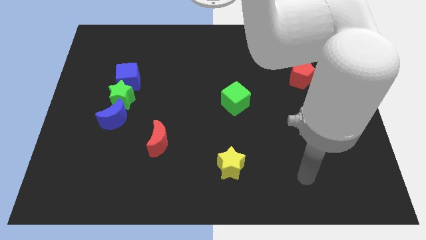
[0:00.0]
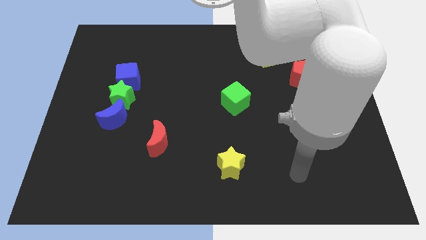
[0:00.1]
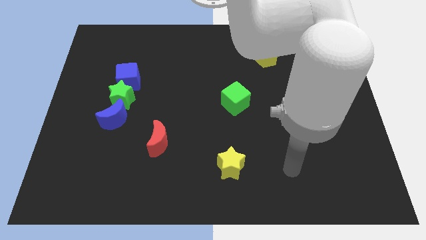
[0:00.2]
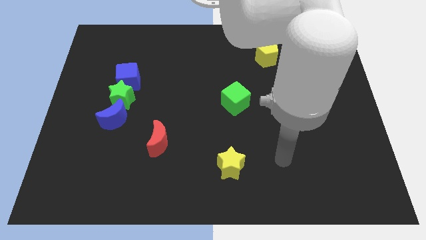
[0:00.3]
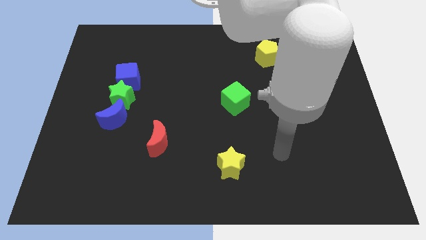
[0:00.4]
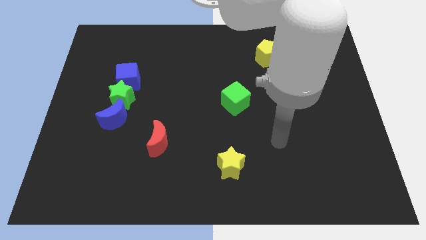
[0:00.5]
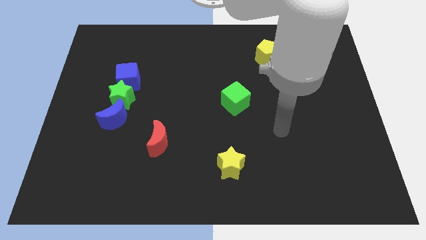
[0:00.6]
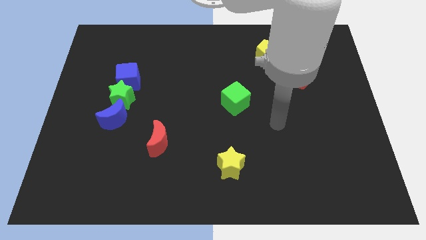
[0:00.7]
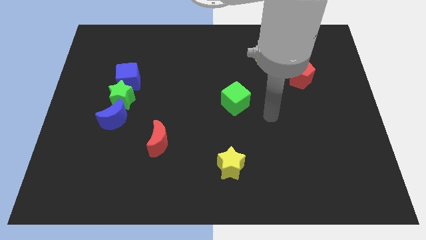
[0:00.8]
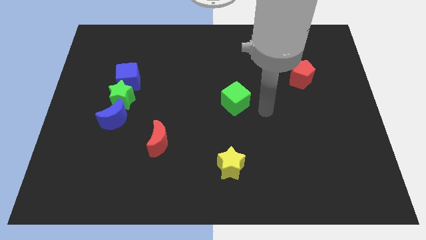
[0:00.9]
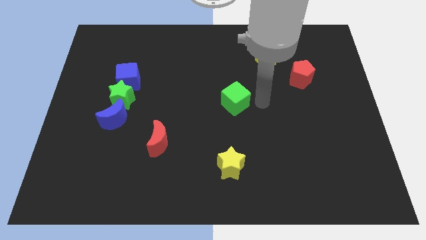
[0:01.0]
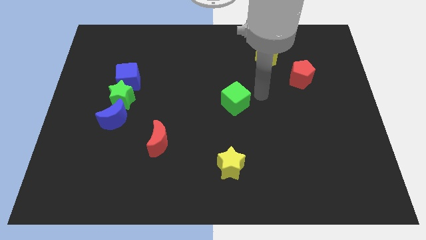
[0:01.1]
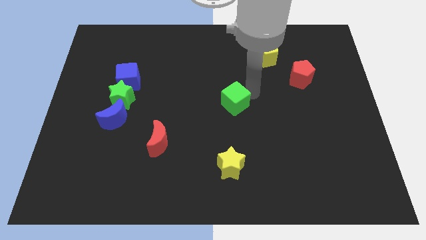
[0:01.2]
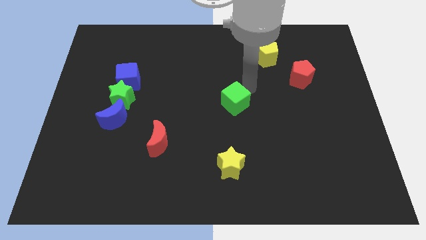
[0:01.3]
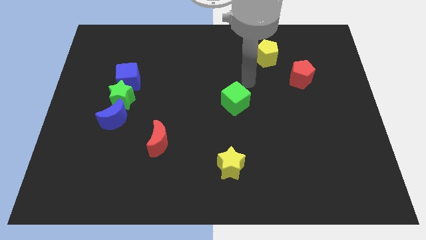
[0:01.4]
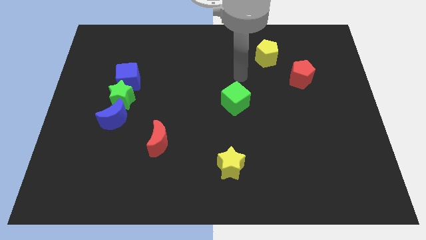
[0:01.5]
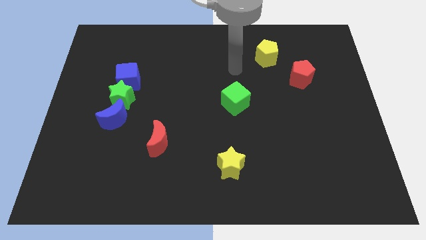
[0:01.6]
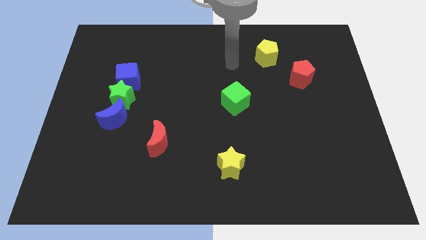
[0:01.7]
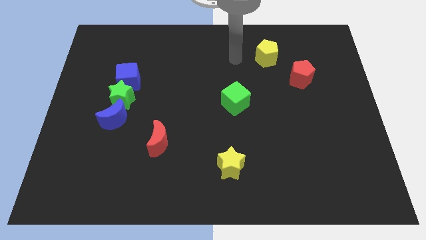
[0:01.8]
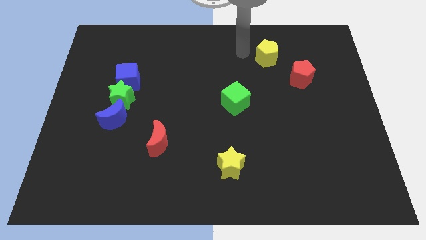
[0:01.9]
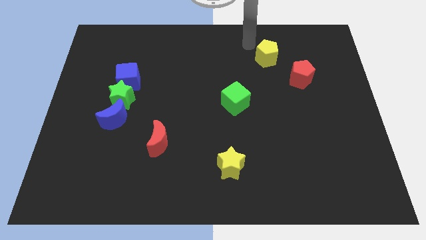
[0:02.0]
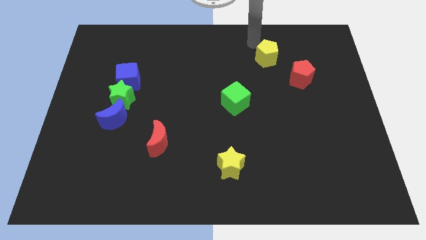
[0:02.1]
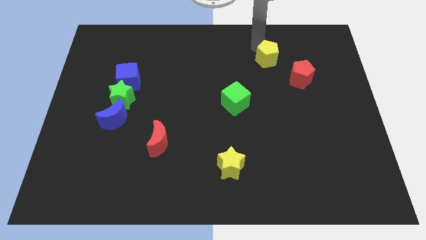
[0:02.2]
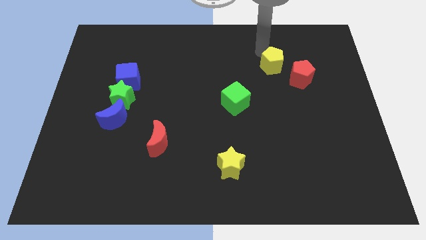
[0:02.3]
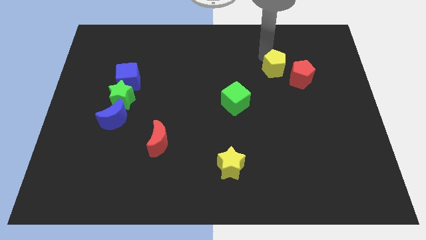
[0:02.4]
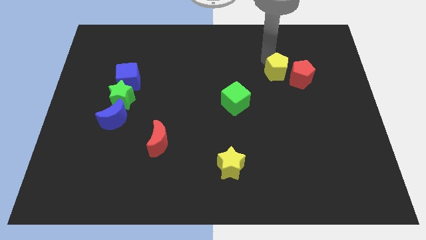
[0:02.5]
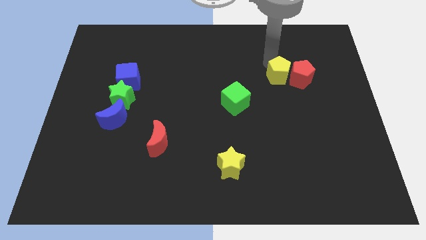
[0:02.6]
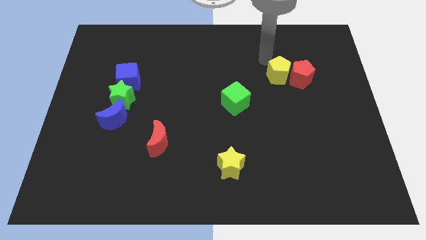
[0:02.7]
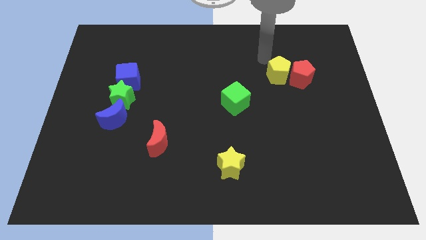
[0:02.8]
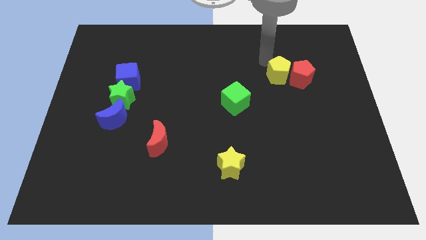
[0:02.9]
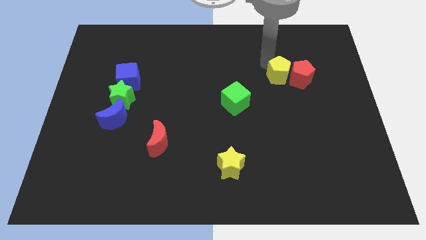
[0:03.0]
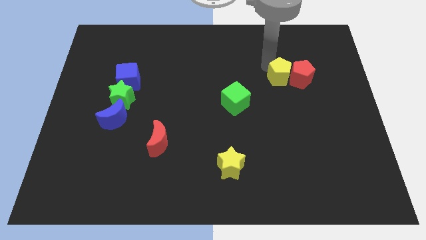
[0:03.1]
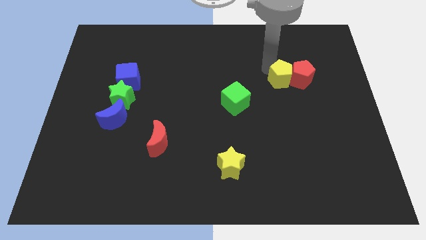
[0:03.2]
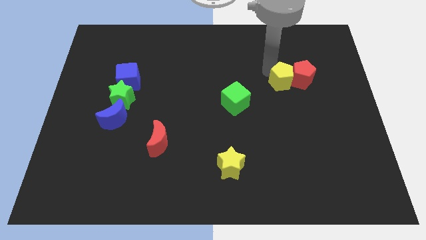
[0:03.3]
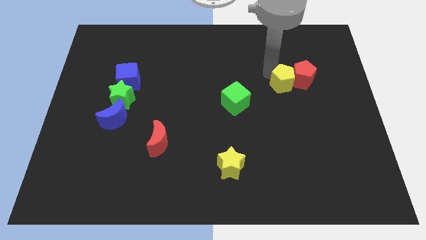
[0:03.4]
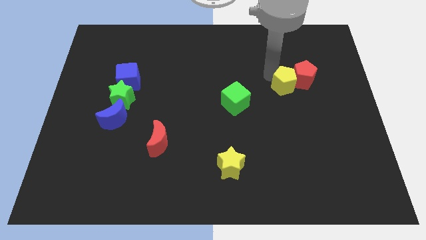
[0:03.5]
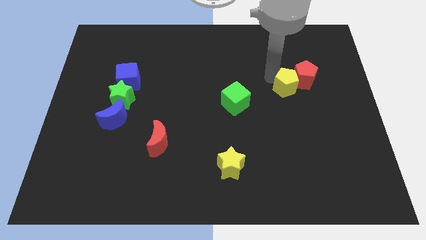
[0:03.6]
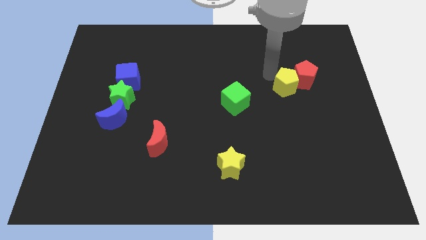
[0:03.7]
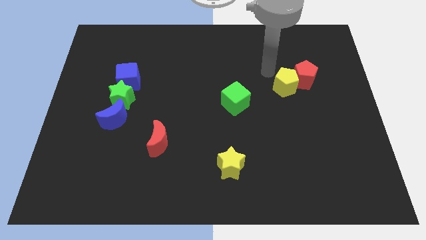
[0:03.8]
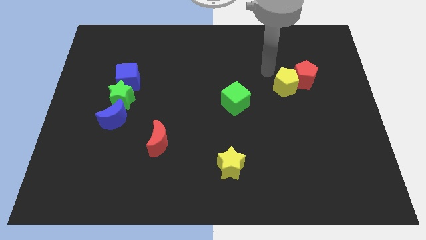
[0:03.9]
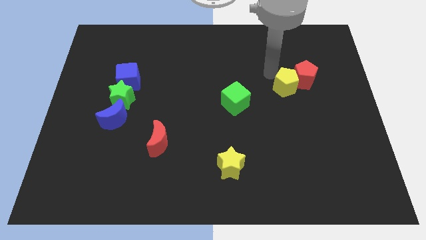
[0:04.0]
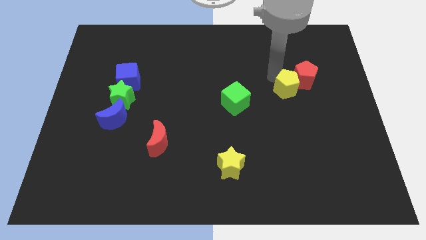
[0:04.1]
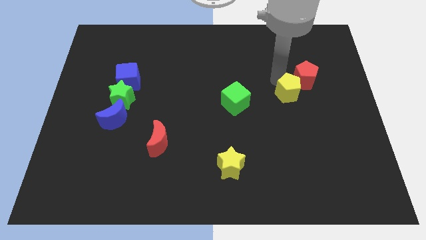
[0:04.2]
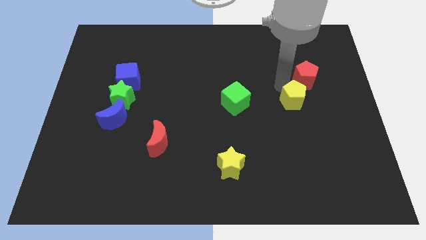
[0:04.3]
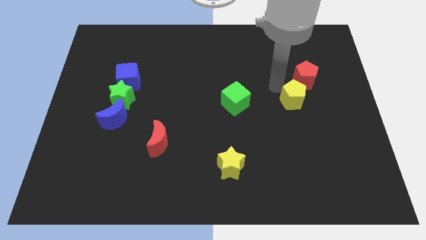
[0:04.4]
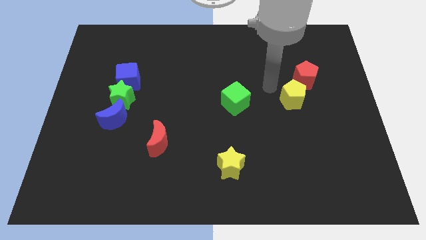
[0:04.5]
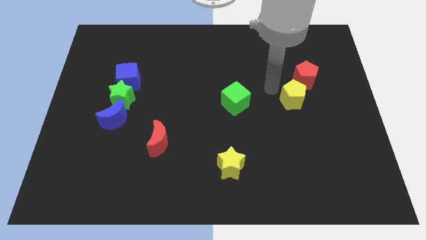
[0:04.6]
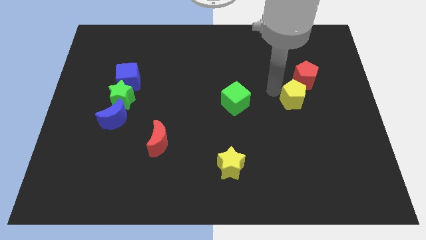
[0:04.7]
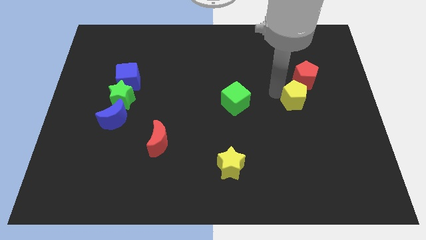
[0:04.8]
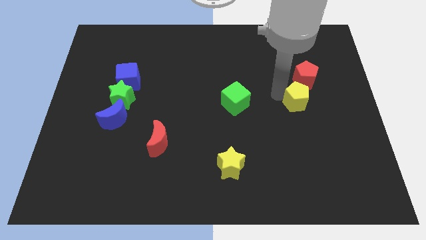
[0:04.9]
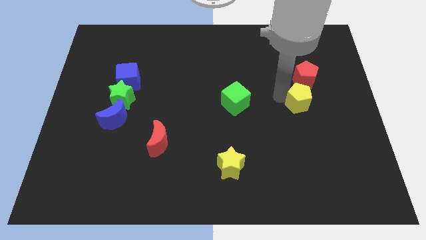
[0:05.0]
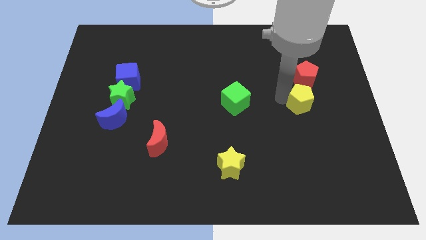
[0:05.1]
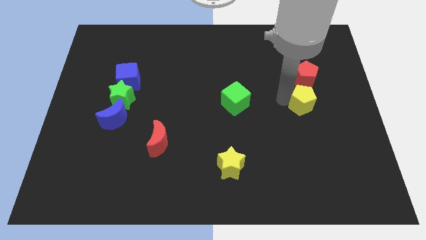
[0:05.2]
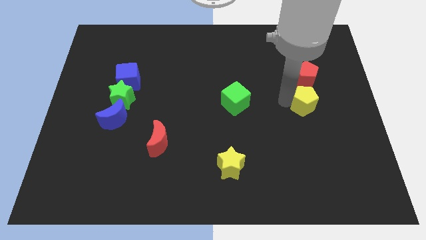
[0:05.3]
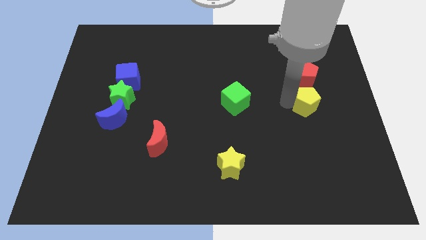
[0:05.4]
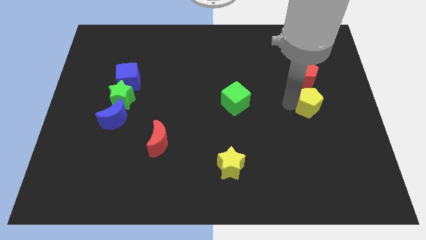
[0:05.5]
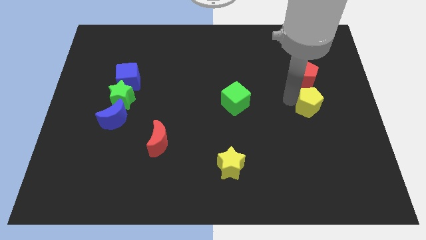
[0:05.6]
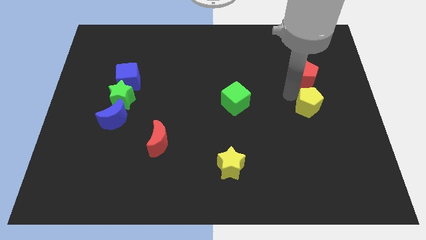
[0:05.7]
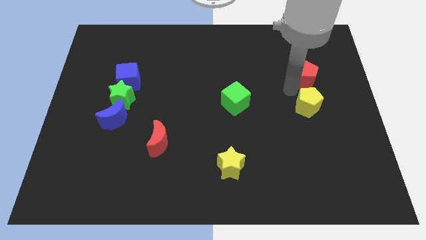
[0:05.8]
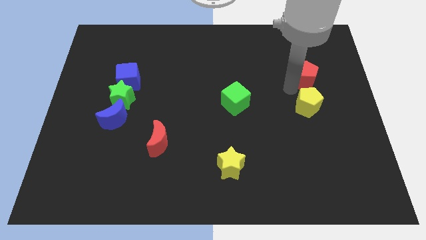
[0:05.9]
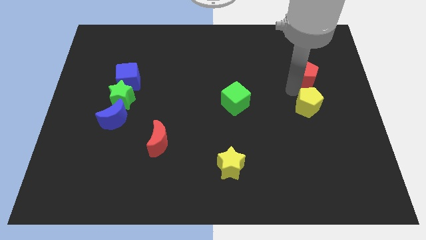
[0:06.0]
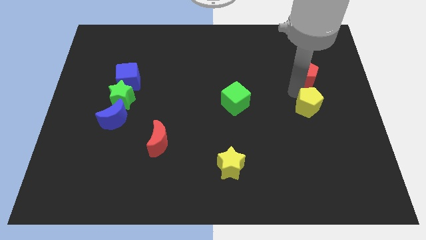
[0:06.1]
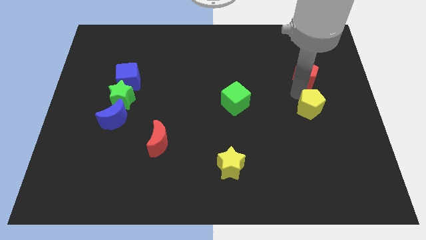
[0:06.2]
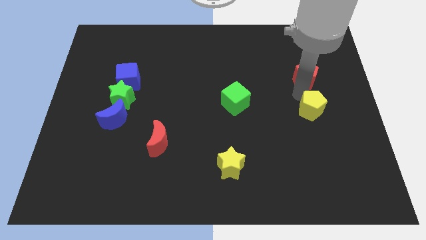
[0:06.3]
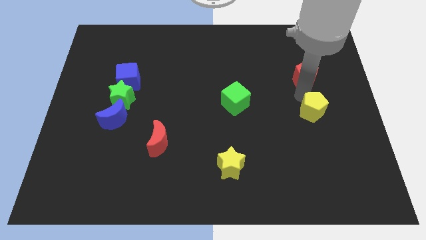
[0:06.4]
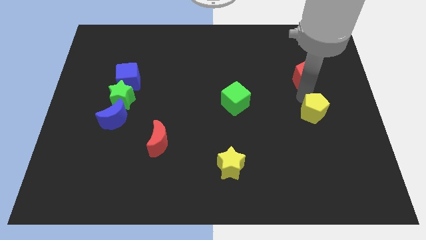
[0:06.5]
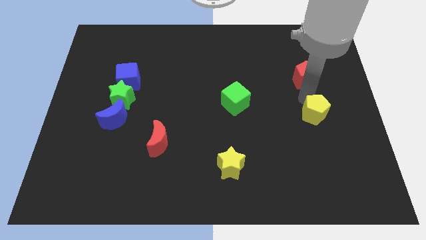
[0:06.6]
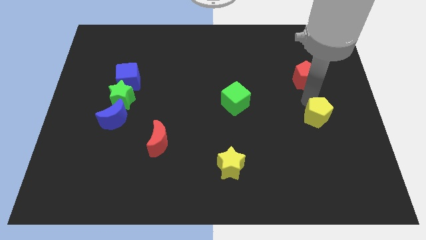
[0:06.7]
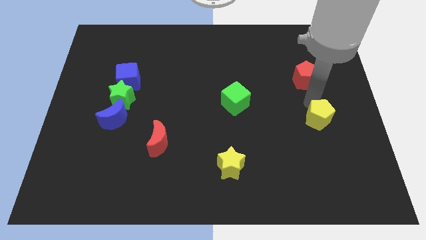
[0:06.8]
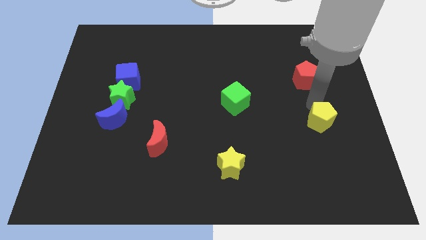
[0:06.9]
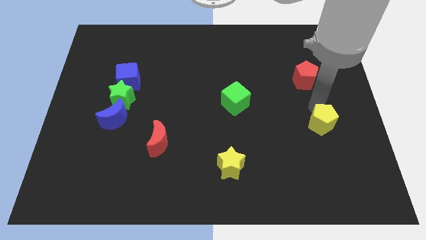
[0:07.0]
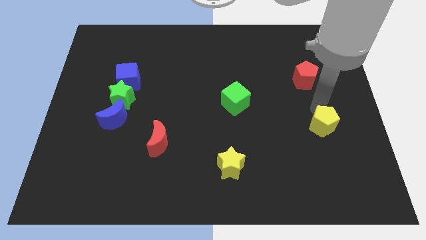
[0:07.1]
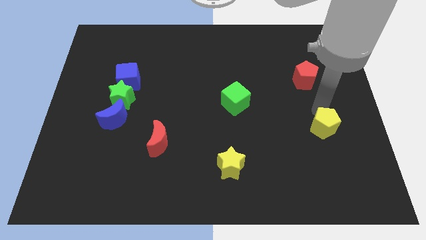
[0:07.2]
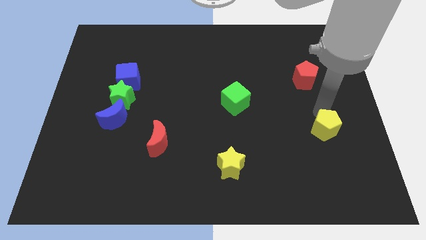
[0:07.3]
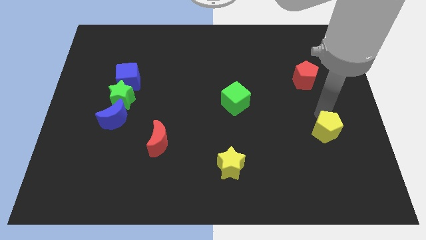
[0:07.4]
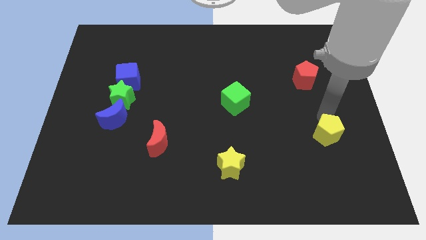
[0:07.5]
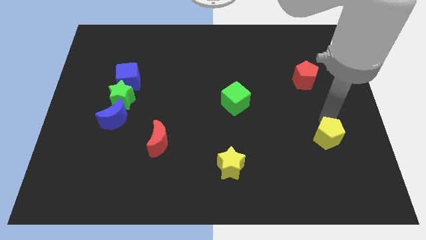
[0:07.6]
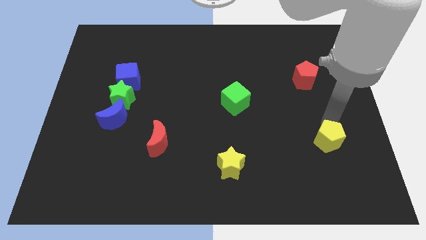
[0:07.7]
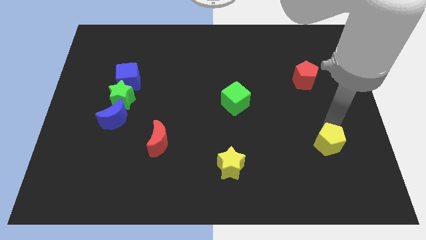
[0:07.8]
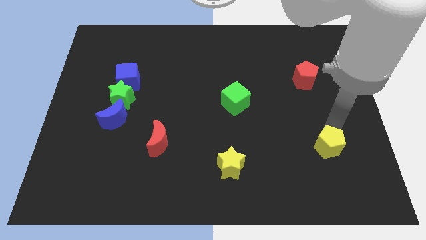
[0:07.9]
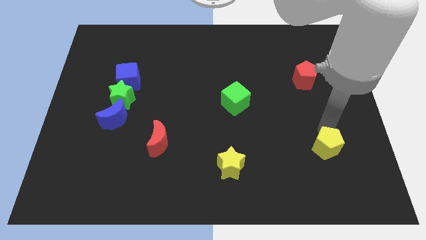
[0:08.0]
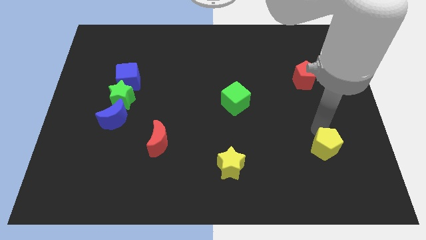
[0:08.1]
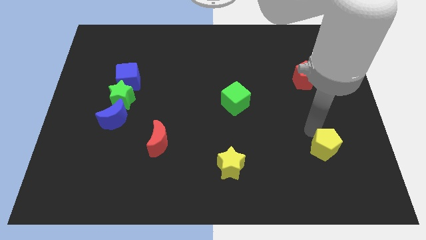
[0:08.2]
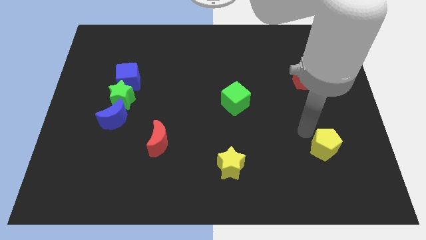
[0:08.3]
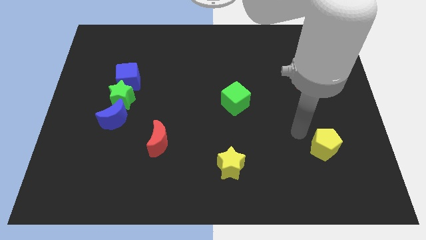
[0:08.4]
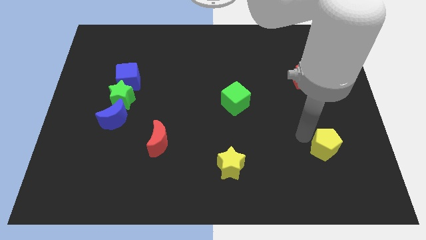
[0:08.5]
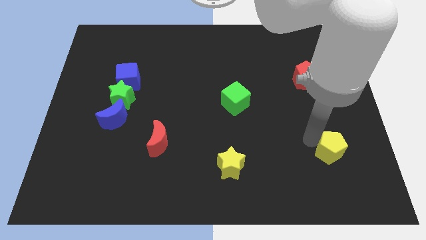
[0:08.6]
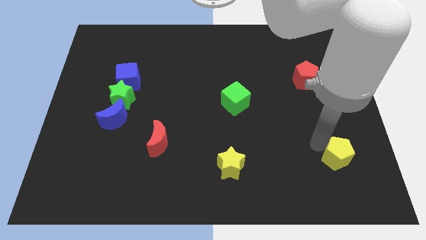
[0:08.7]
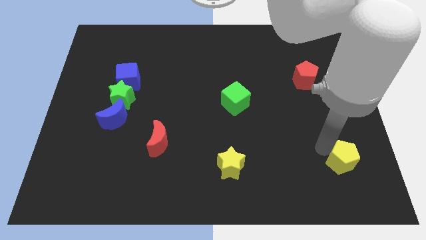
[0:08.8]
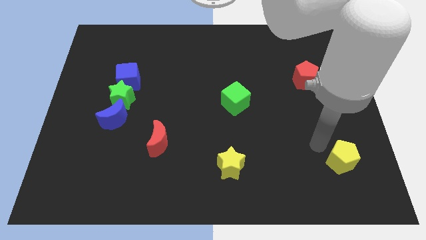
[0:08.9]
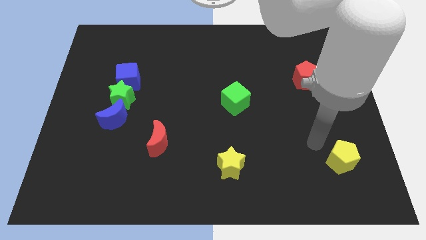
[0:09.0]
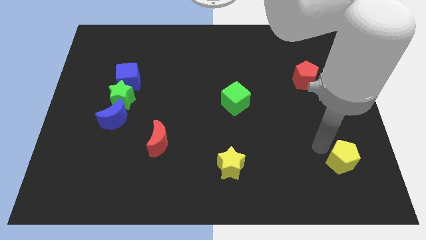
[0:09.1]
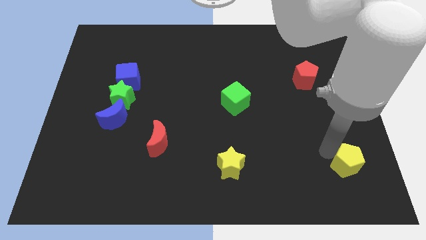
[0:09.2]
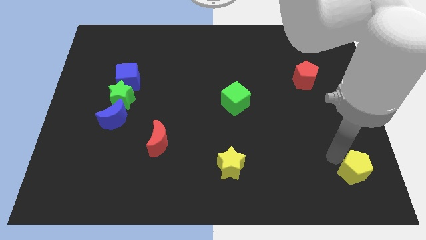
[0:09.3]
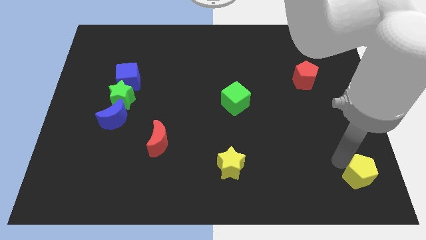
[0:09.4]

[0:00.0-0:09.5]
push the yellow pentagon to the bottom right of the board
